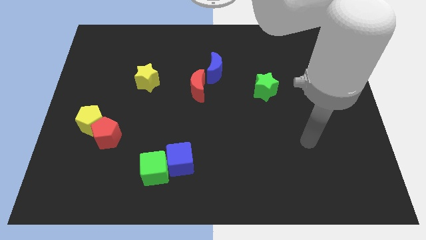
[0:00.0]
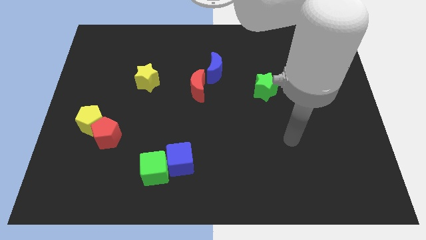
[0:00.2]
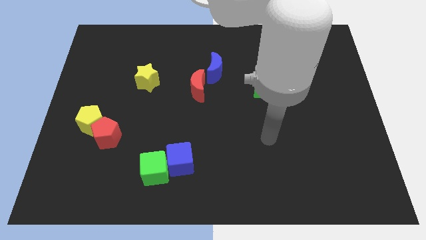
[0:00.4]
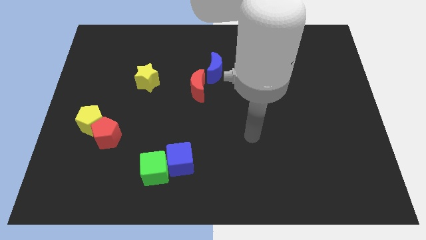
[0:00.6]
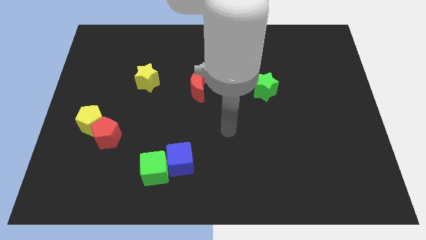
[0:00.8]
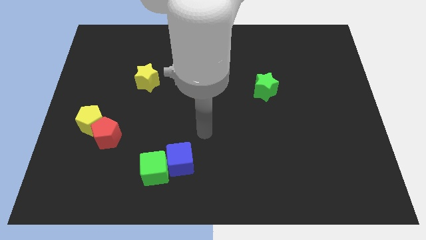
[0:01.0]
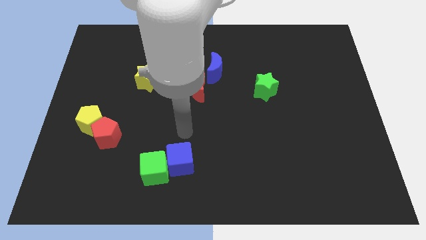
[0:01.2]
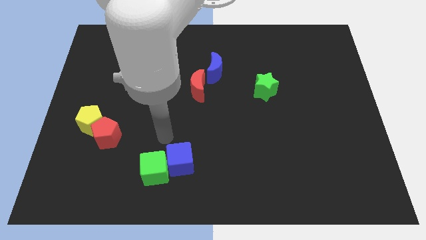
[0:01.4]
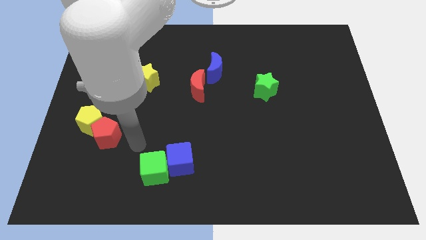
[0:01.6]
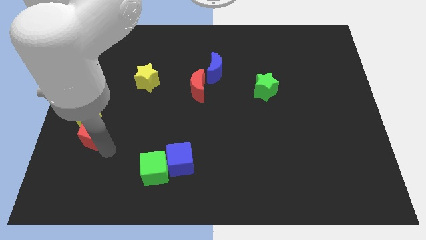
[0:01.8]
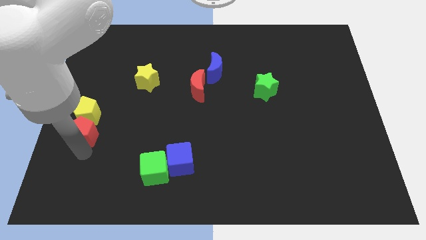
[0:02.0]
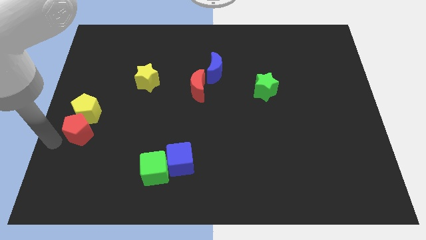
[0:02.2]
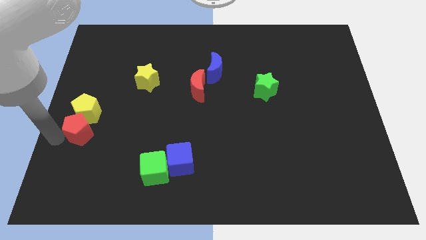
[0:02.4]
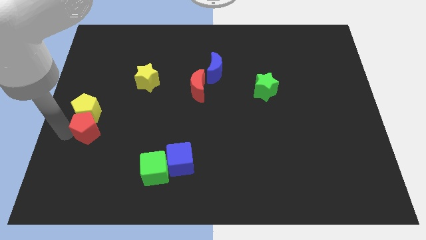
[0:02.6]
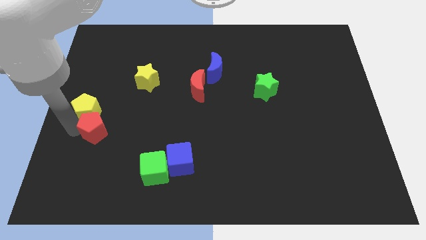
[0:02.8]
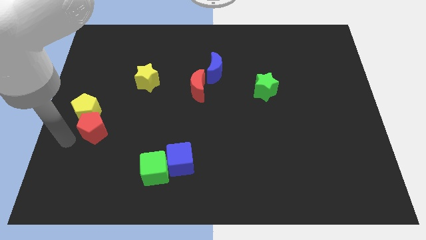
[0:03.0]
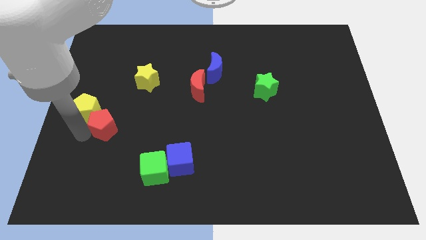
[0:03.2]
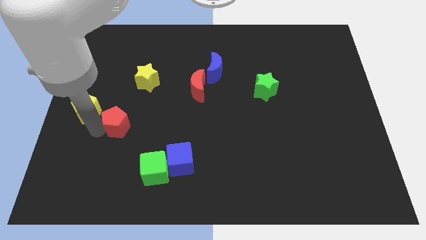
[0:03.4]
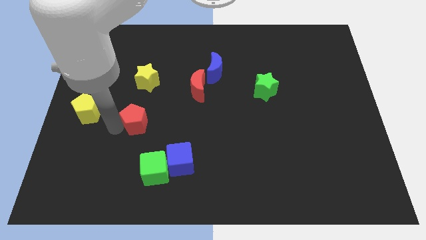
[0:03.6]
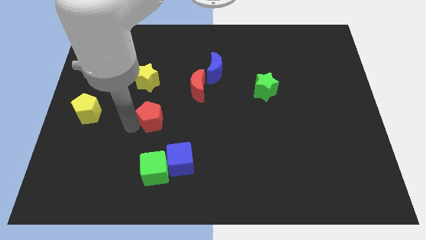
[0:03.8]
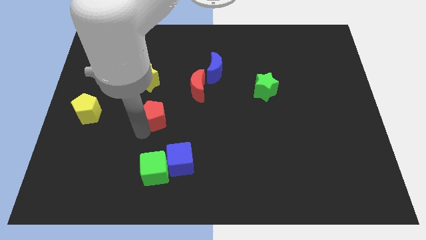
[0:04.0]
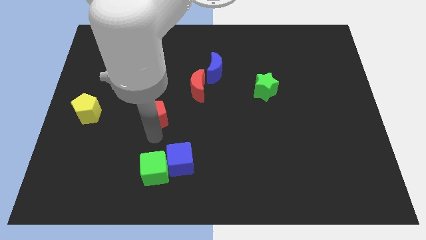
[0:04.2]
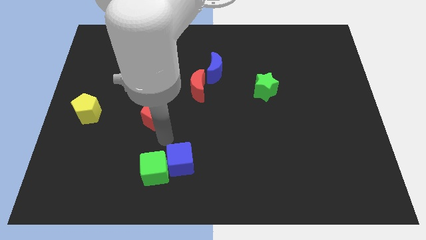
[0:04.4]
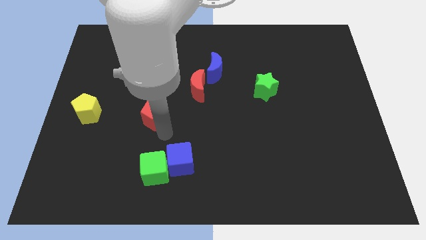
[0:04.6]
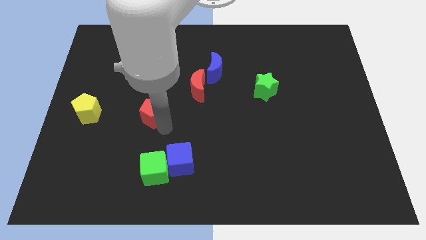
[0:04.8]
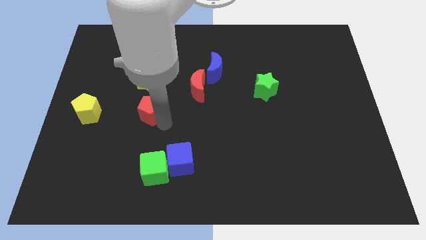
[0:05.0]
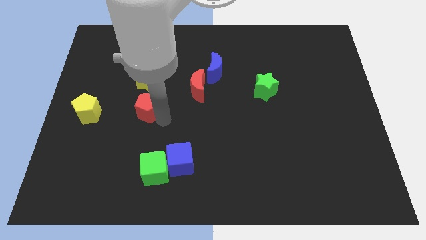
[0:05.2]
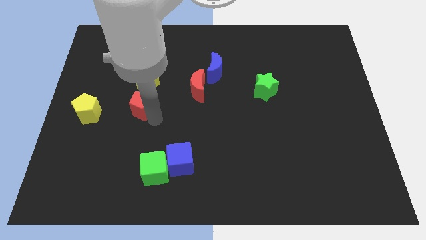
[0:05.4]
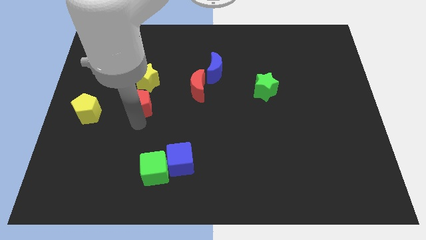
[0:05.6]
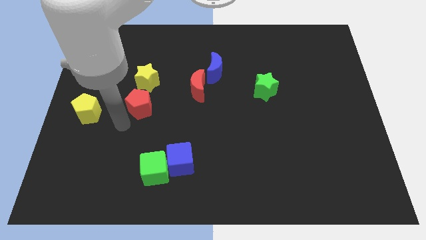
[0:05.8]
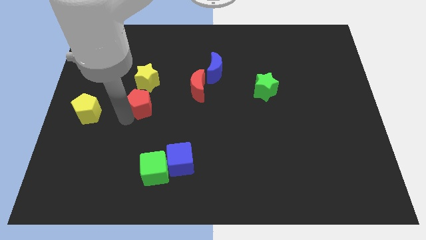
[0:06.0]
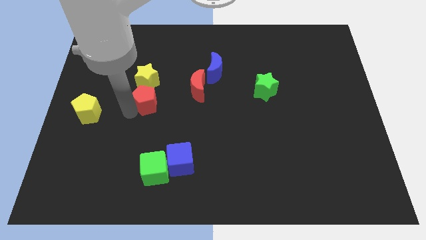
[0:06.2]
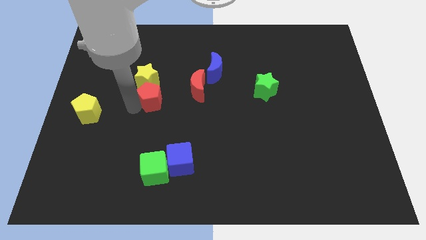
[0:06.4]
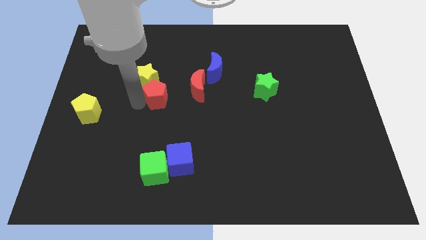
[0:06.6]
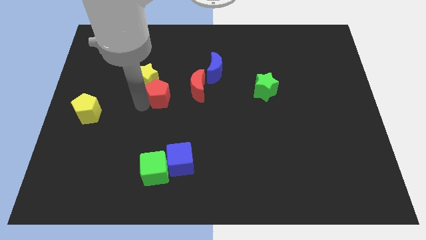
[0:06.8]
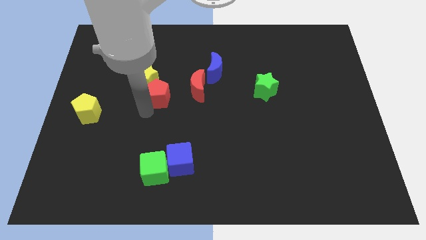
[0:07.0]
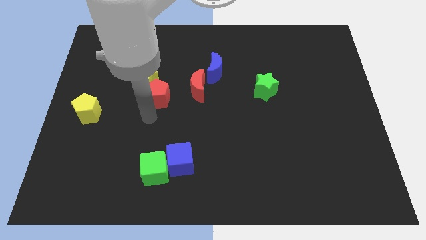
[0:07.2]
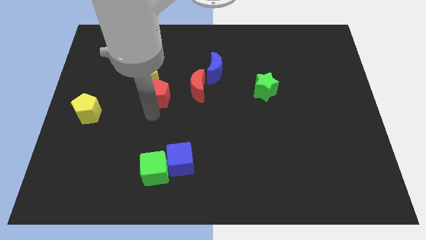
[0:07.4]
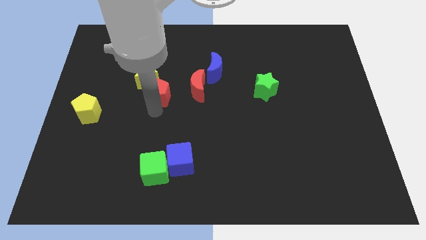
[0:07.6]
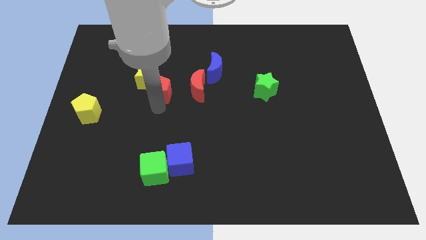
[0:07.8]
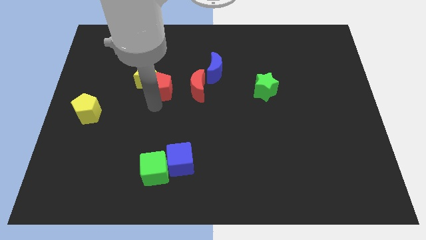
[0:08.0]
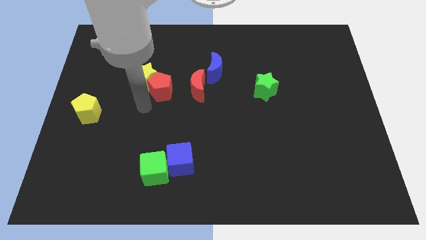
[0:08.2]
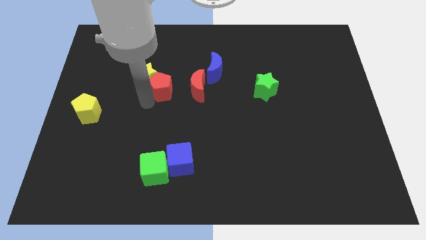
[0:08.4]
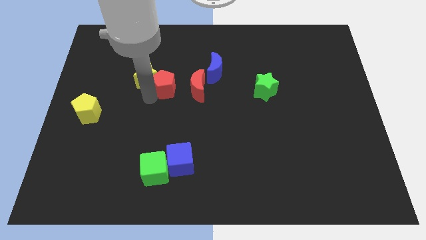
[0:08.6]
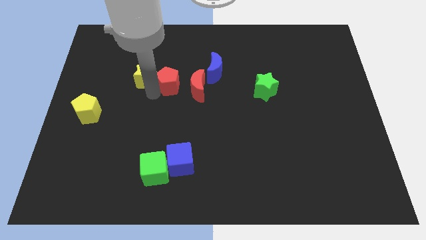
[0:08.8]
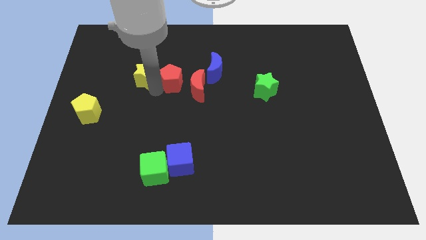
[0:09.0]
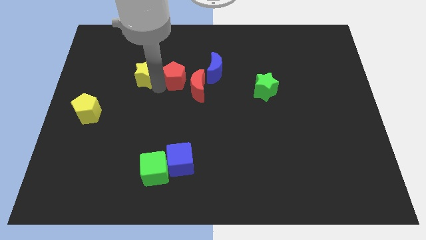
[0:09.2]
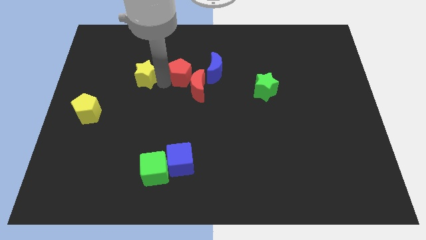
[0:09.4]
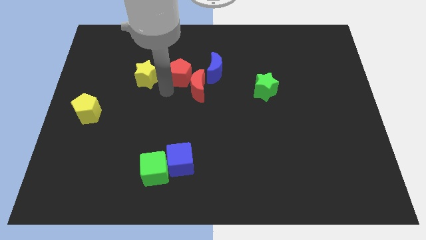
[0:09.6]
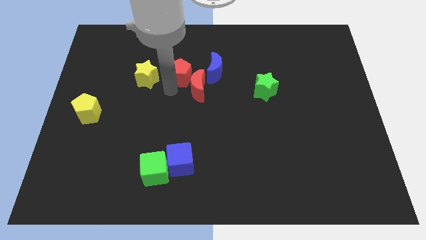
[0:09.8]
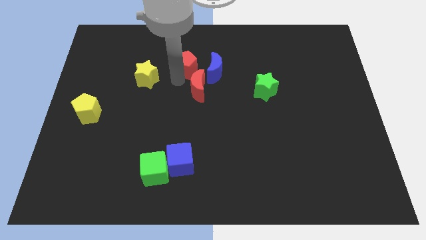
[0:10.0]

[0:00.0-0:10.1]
push the red pentagon to the top left of the blue moon

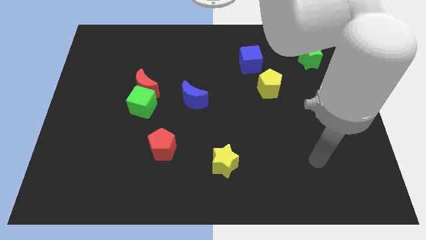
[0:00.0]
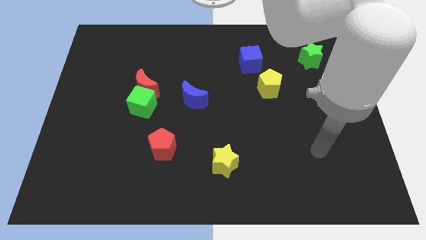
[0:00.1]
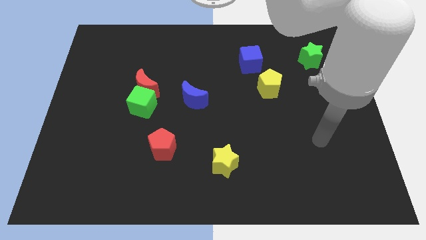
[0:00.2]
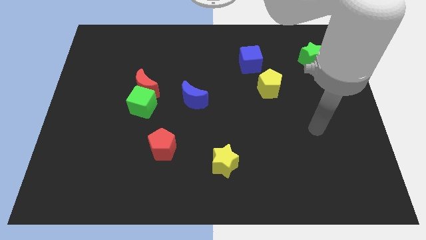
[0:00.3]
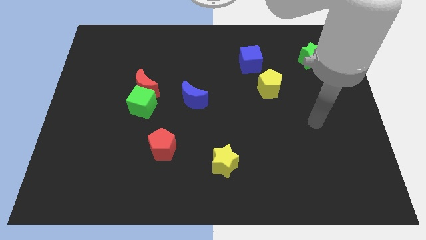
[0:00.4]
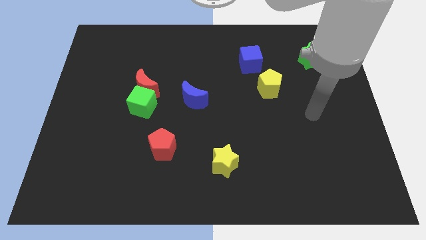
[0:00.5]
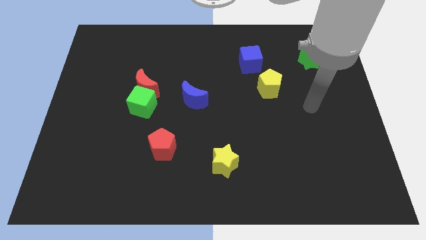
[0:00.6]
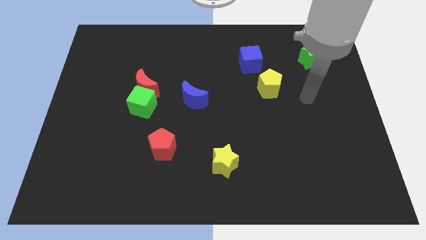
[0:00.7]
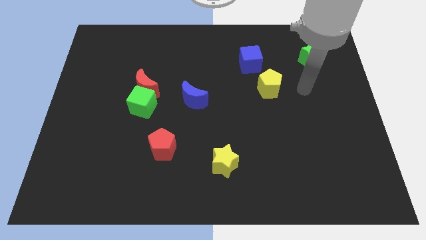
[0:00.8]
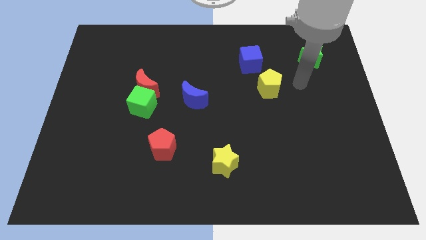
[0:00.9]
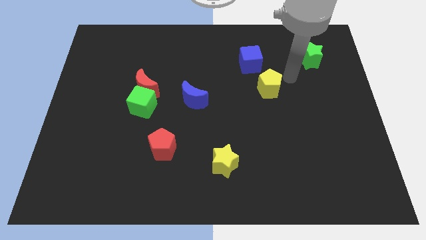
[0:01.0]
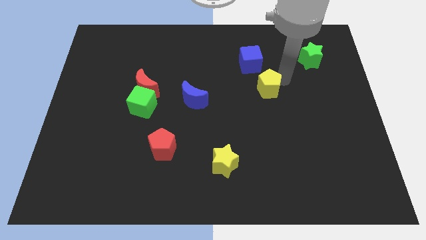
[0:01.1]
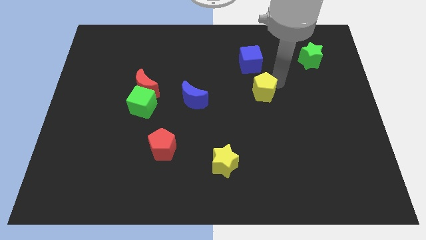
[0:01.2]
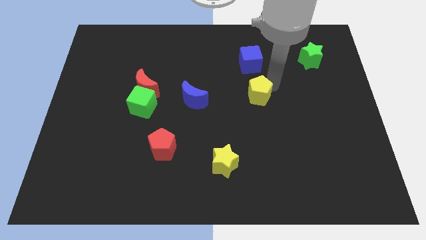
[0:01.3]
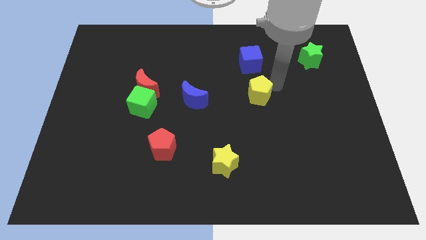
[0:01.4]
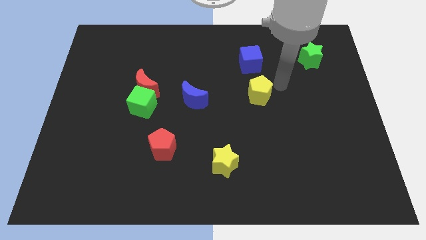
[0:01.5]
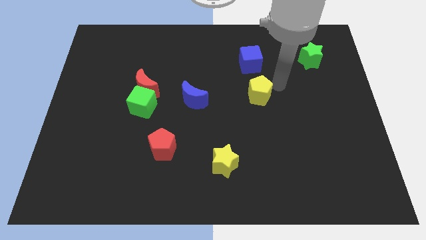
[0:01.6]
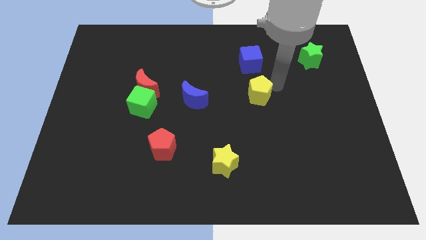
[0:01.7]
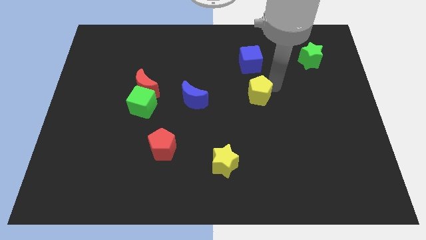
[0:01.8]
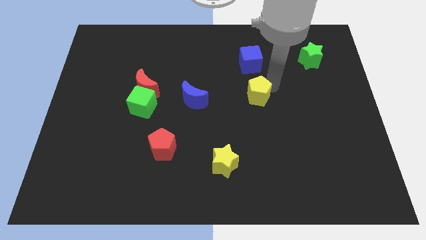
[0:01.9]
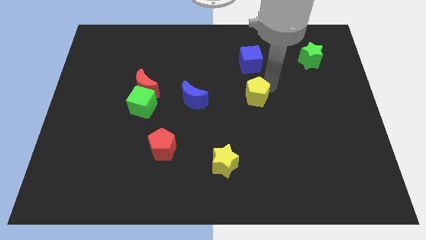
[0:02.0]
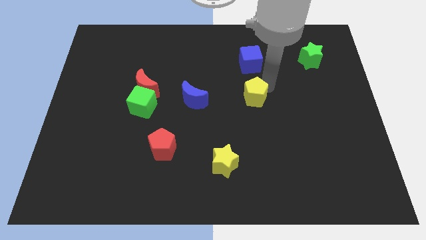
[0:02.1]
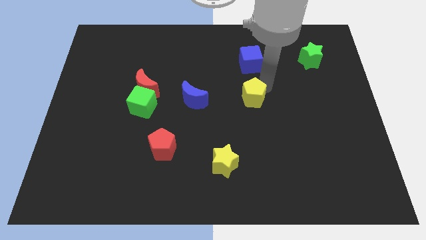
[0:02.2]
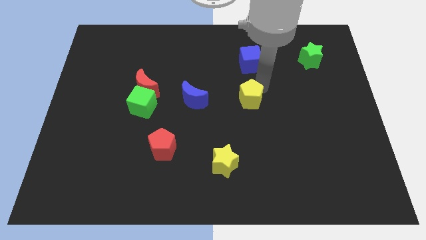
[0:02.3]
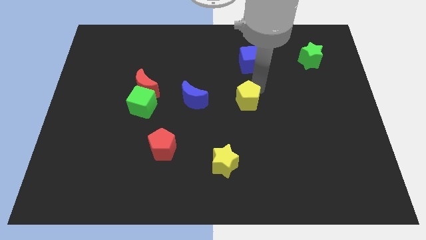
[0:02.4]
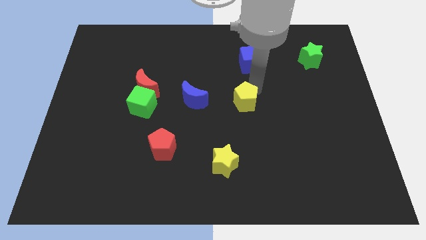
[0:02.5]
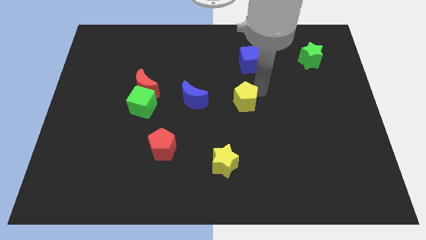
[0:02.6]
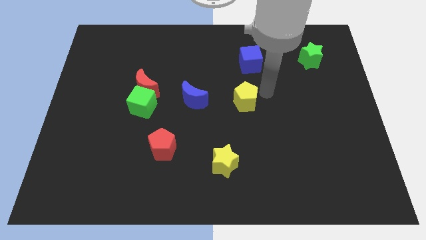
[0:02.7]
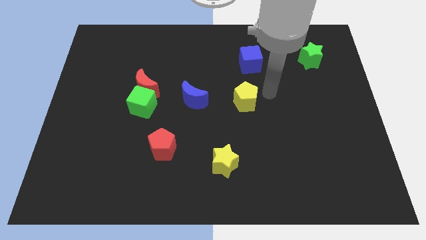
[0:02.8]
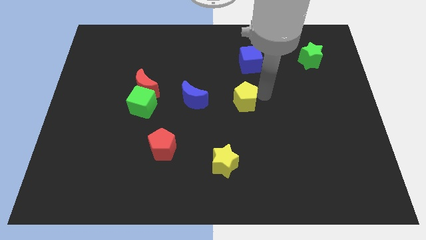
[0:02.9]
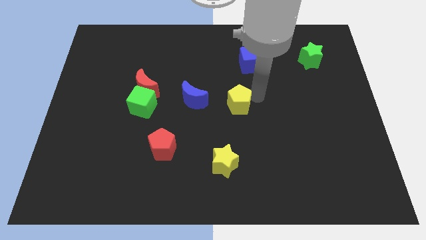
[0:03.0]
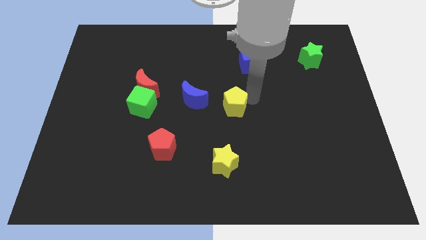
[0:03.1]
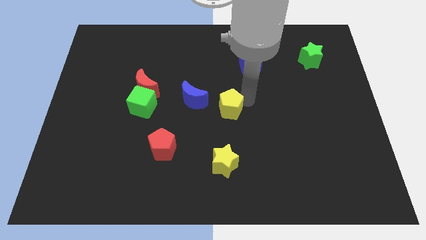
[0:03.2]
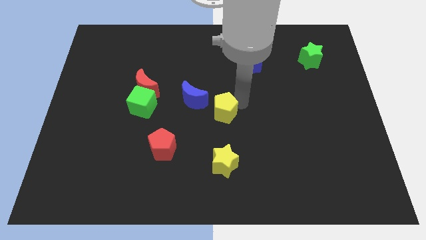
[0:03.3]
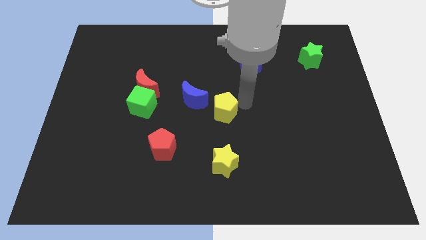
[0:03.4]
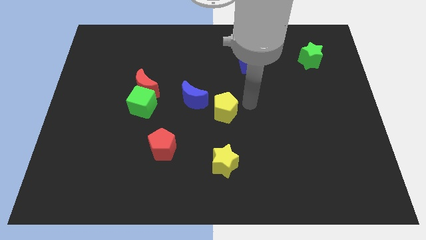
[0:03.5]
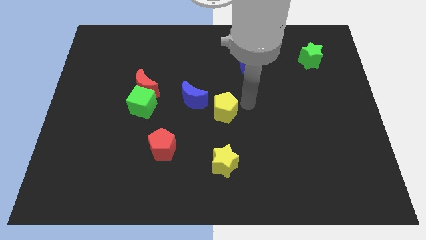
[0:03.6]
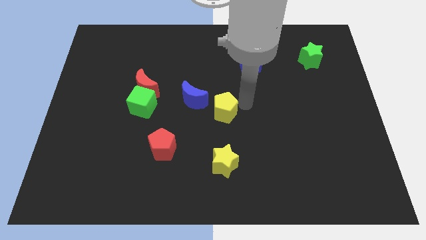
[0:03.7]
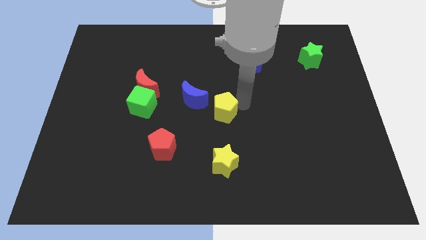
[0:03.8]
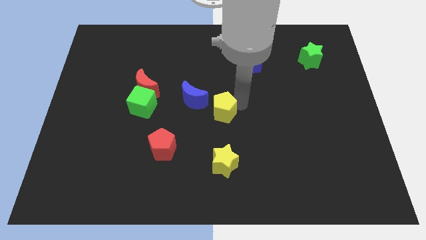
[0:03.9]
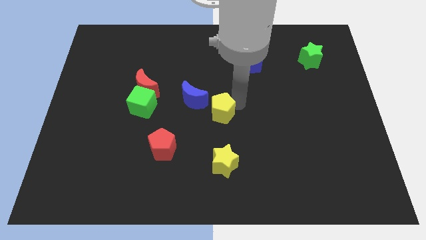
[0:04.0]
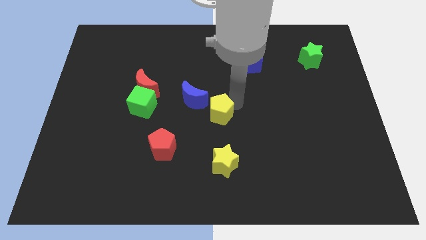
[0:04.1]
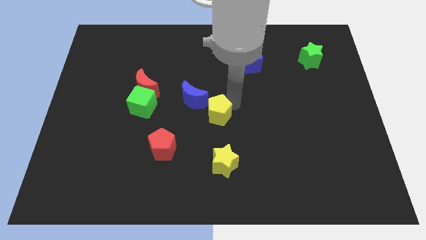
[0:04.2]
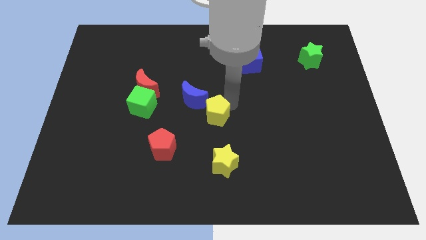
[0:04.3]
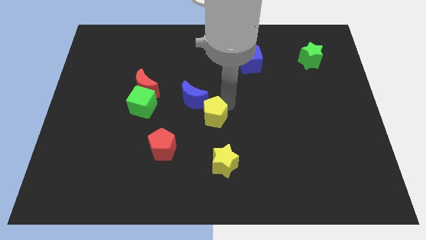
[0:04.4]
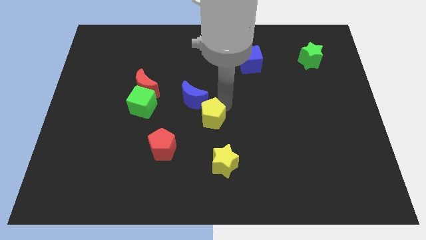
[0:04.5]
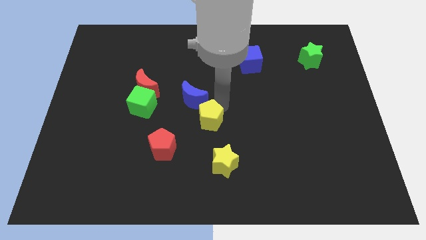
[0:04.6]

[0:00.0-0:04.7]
push the yellow pentagon to the top right of the red pentagon
